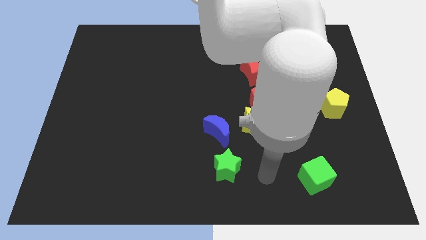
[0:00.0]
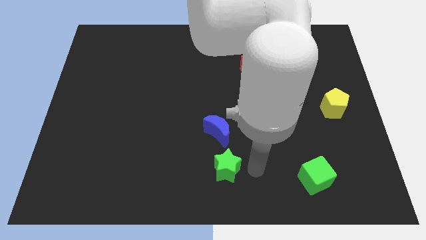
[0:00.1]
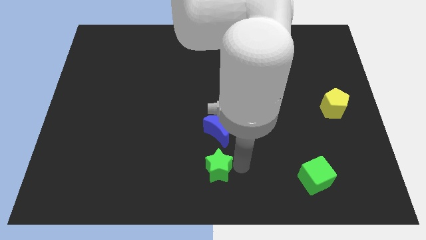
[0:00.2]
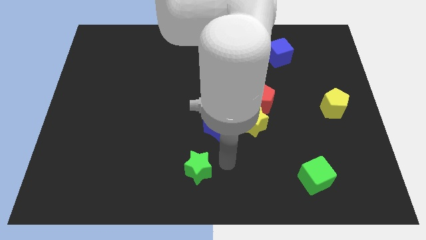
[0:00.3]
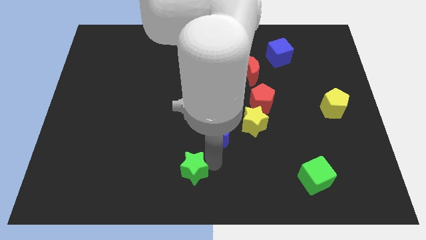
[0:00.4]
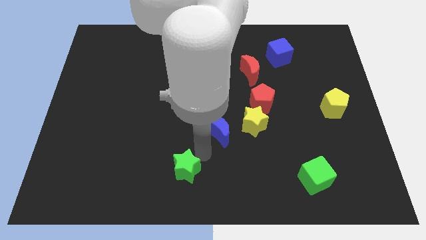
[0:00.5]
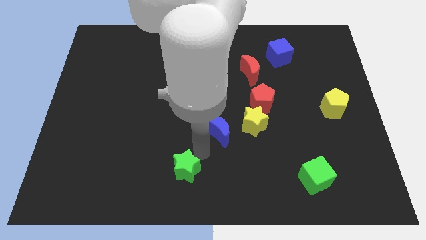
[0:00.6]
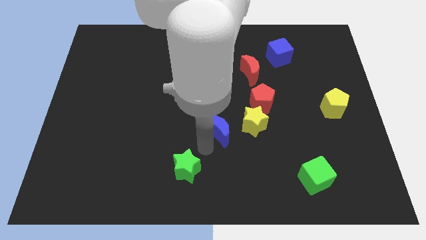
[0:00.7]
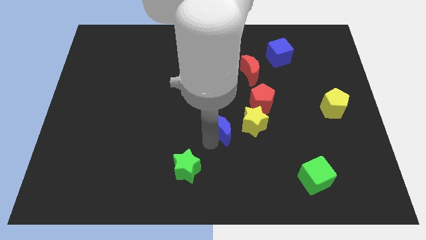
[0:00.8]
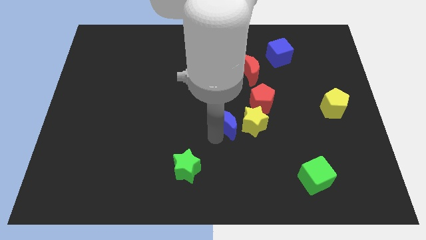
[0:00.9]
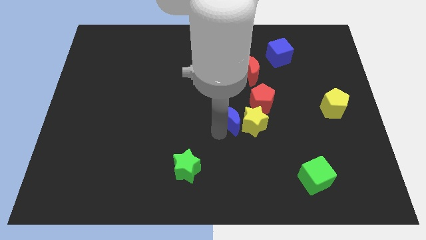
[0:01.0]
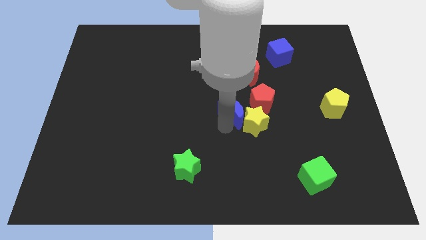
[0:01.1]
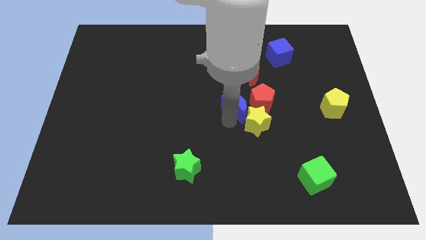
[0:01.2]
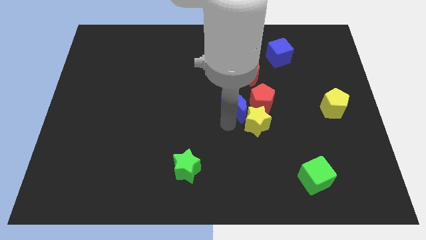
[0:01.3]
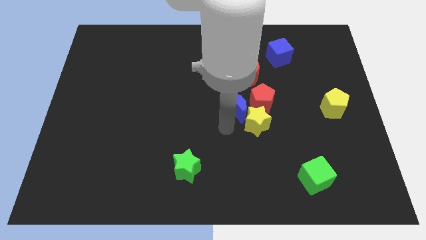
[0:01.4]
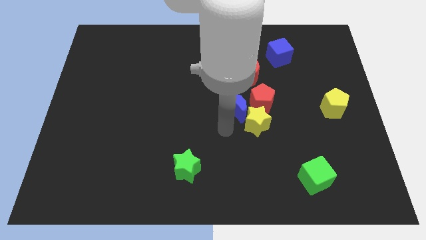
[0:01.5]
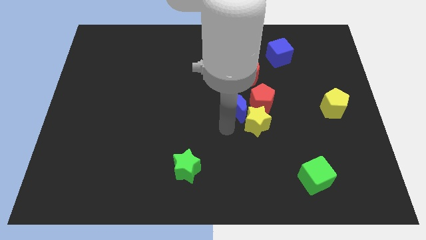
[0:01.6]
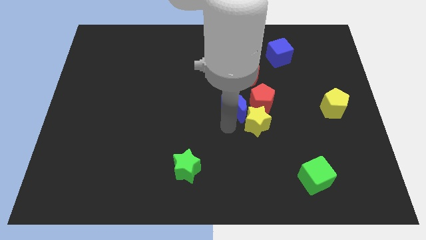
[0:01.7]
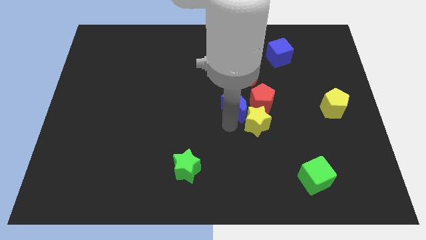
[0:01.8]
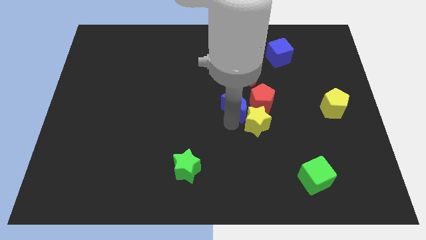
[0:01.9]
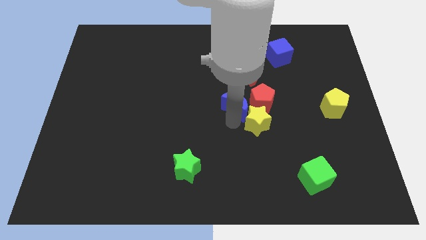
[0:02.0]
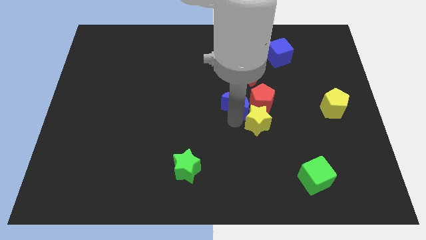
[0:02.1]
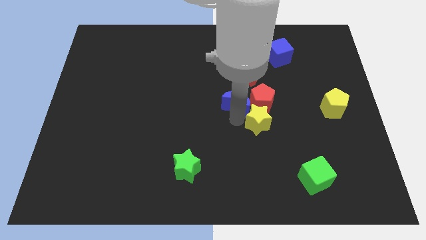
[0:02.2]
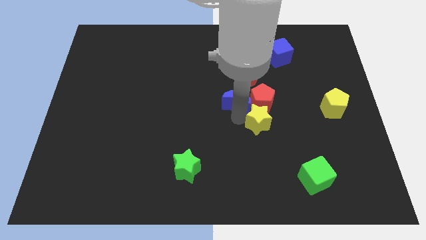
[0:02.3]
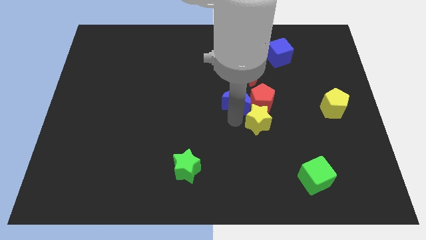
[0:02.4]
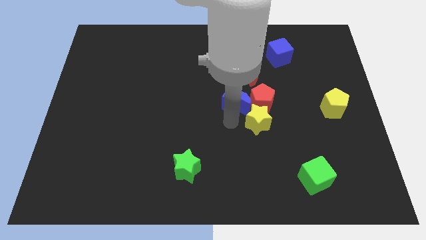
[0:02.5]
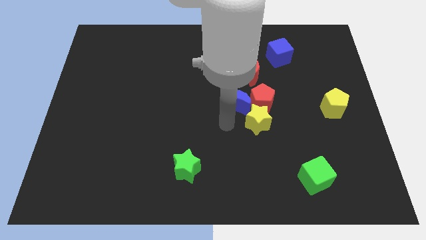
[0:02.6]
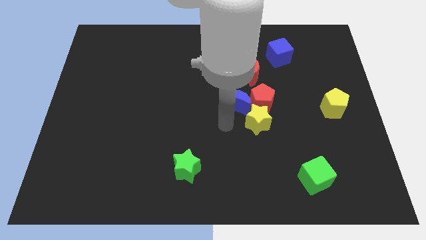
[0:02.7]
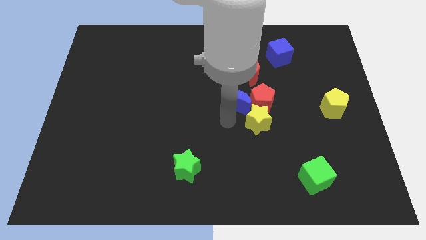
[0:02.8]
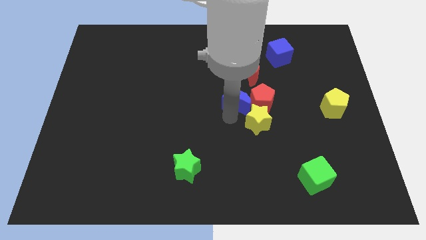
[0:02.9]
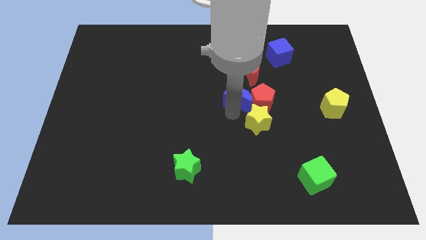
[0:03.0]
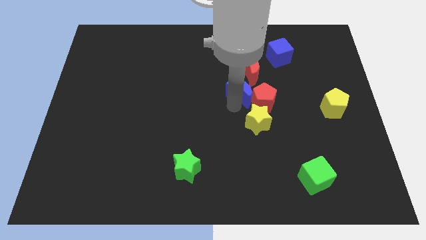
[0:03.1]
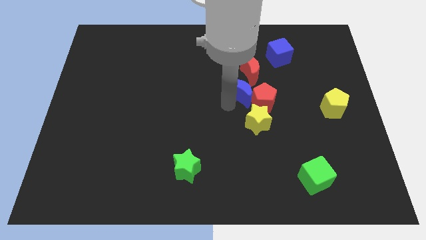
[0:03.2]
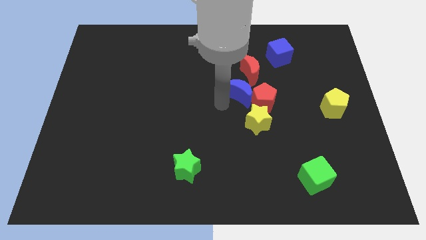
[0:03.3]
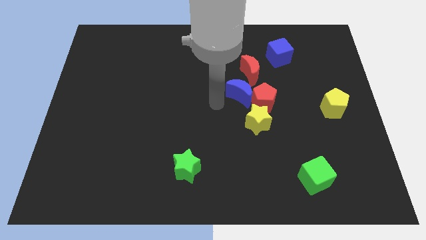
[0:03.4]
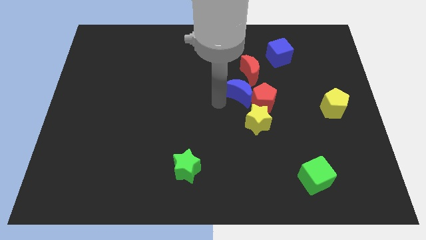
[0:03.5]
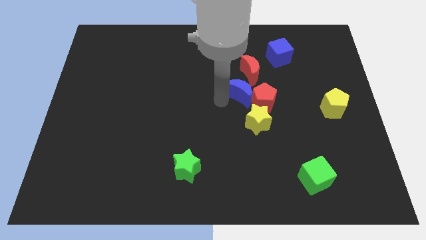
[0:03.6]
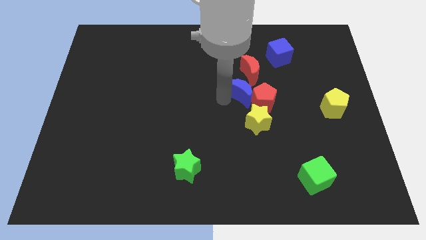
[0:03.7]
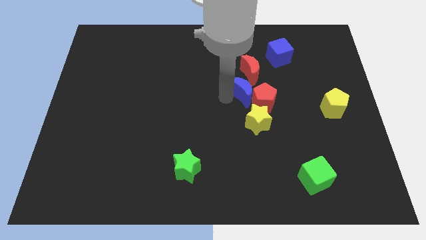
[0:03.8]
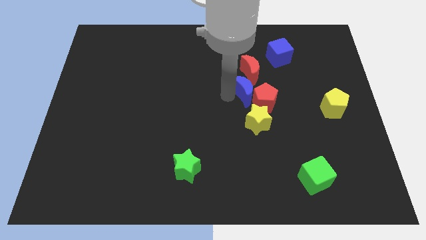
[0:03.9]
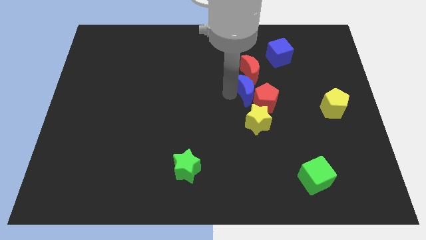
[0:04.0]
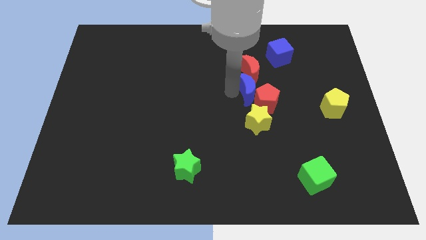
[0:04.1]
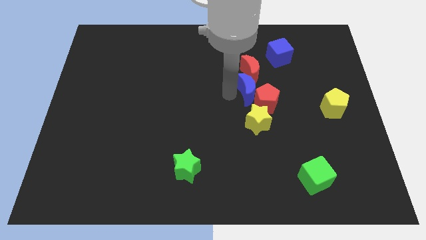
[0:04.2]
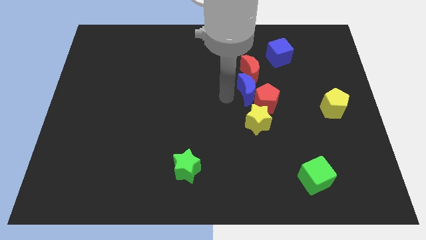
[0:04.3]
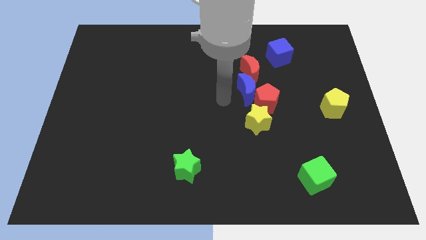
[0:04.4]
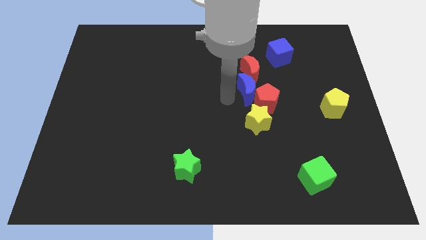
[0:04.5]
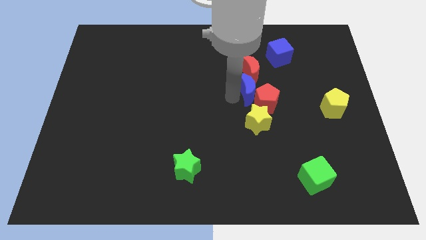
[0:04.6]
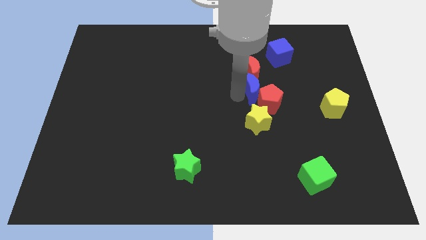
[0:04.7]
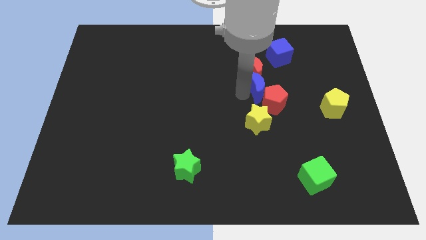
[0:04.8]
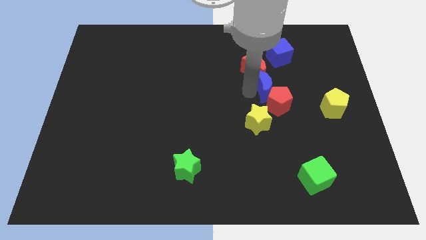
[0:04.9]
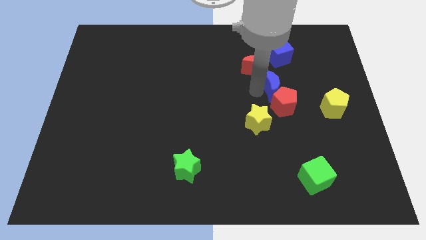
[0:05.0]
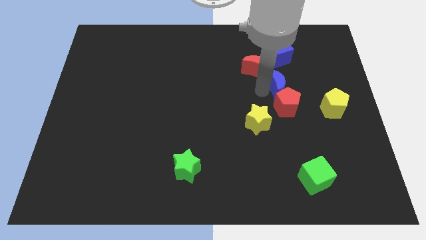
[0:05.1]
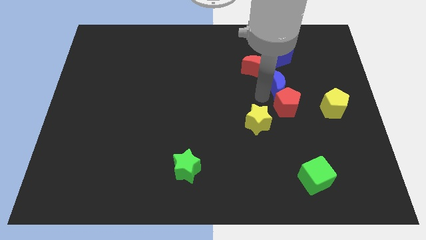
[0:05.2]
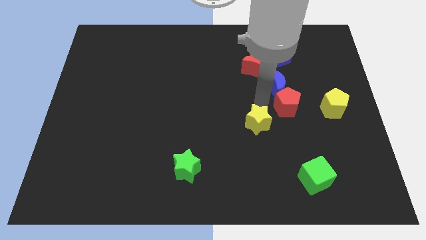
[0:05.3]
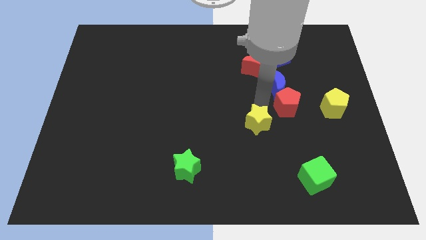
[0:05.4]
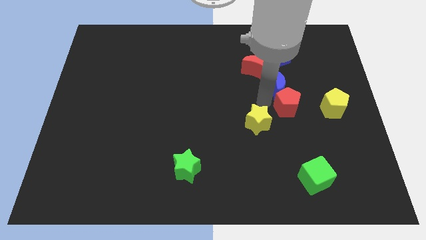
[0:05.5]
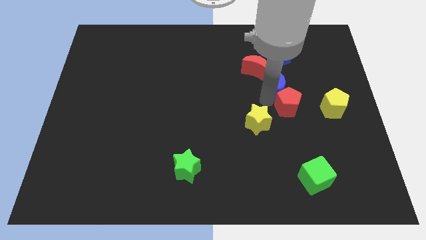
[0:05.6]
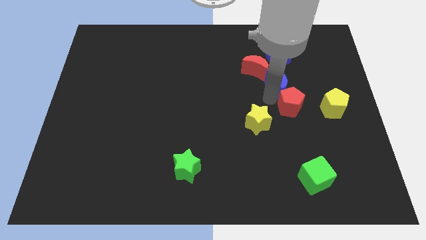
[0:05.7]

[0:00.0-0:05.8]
slide the blue moon upwards and right

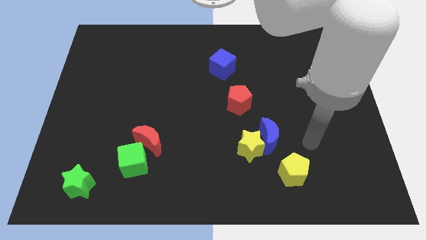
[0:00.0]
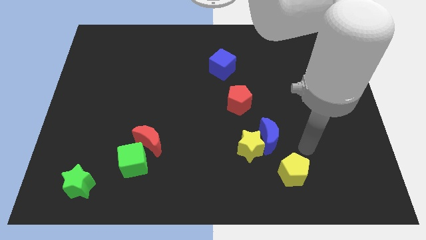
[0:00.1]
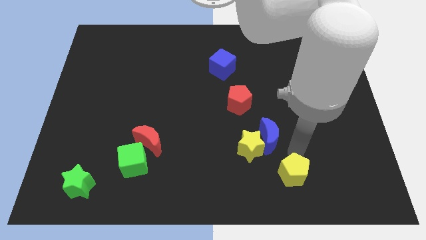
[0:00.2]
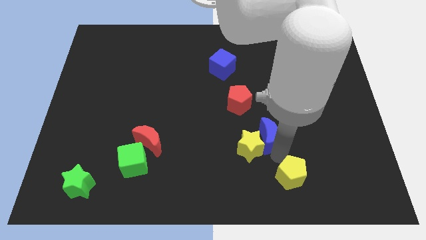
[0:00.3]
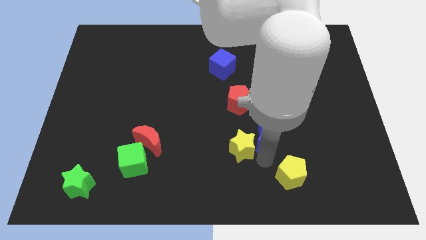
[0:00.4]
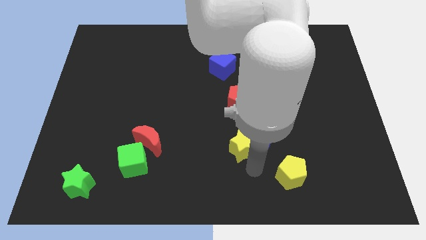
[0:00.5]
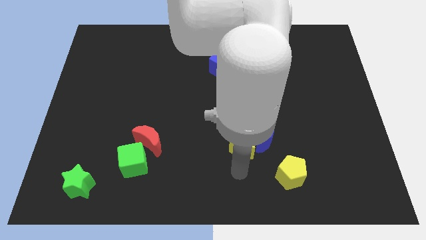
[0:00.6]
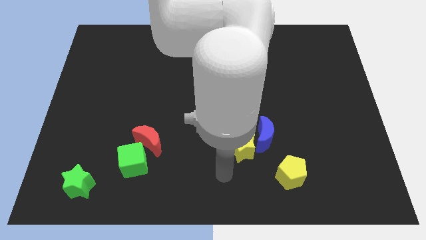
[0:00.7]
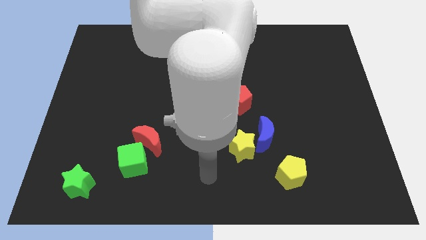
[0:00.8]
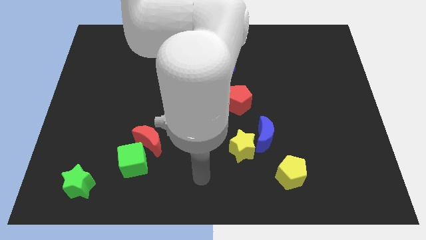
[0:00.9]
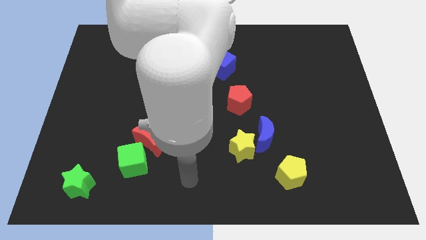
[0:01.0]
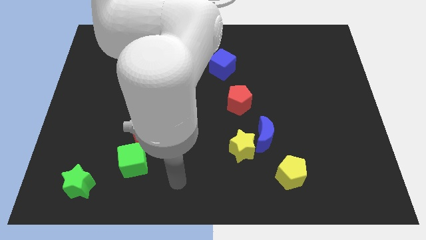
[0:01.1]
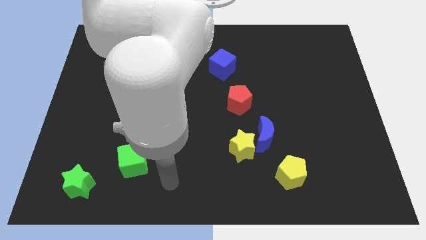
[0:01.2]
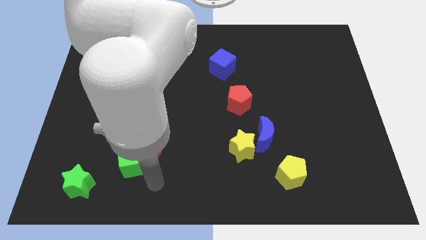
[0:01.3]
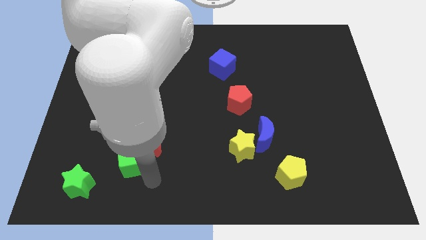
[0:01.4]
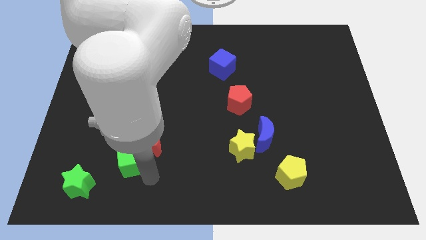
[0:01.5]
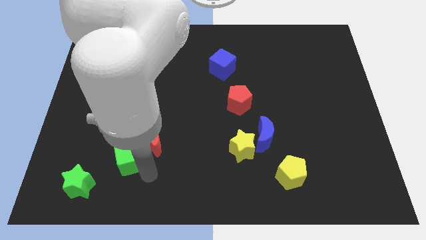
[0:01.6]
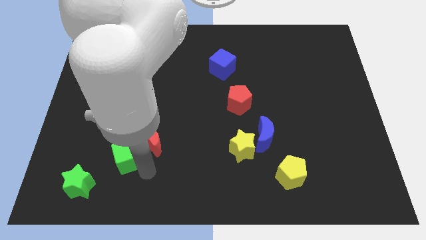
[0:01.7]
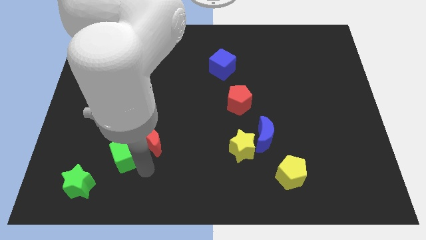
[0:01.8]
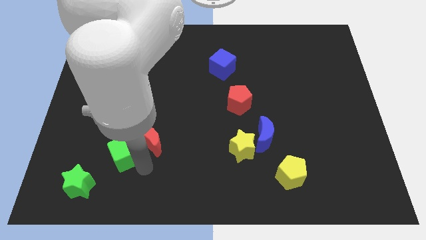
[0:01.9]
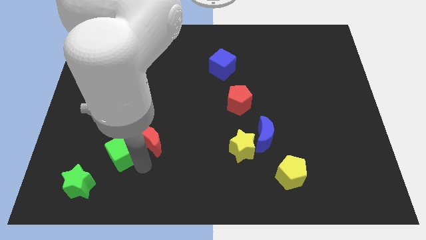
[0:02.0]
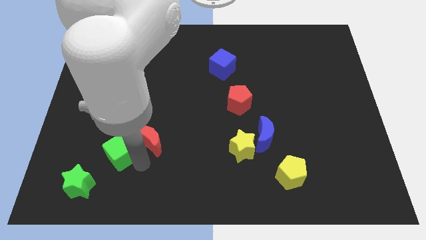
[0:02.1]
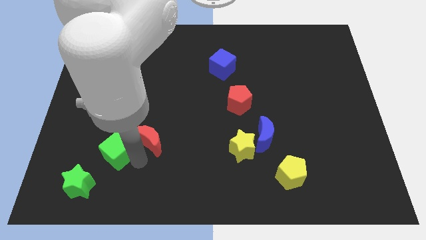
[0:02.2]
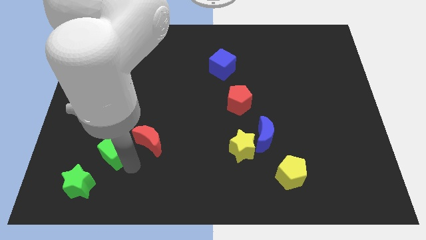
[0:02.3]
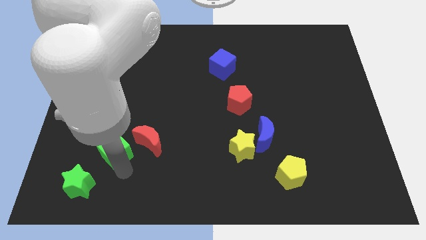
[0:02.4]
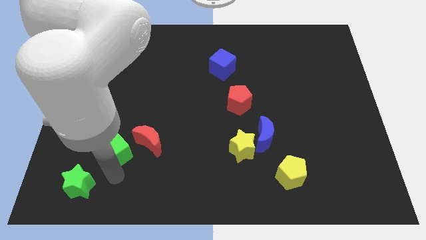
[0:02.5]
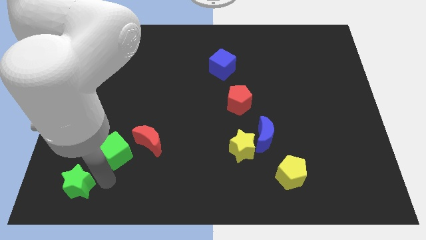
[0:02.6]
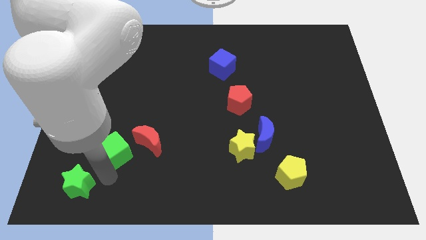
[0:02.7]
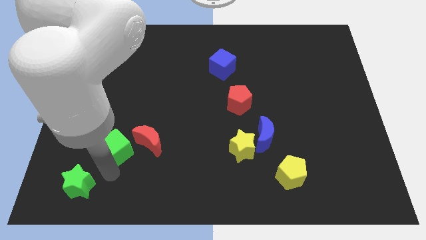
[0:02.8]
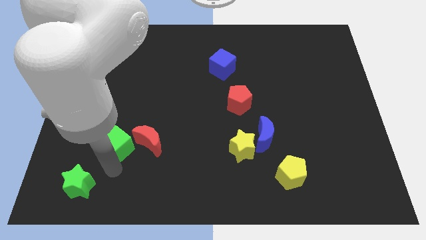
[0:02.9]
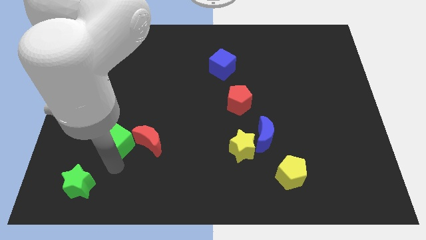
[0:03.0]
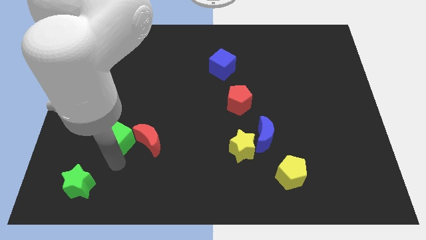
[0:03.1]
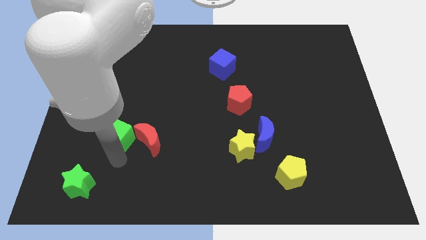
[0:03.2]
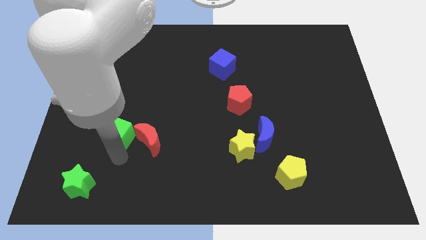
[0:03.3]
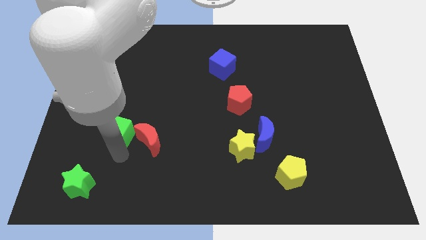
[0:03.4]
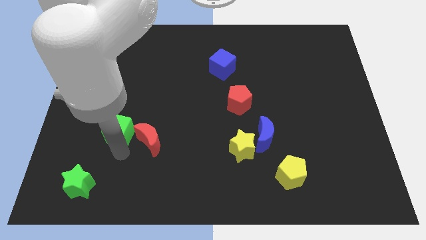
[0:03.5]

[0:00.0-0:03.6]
slide the green cube up a bit
